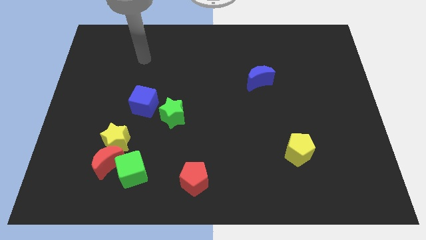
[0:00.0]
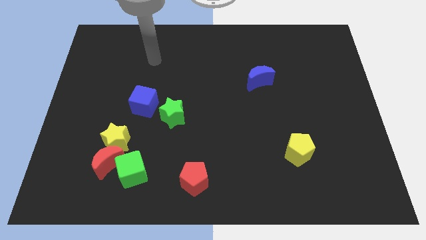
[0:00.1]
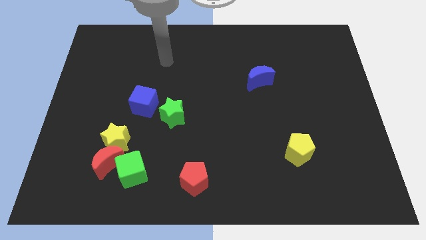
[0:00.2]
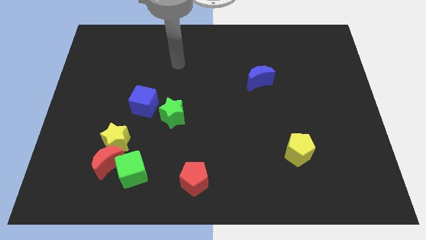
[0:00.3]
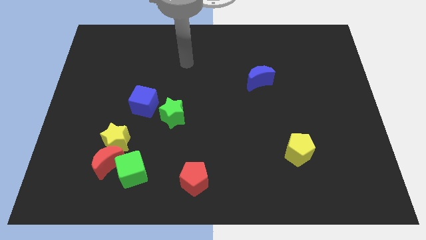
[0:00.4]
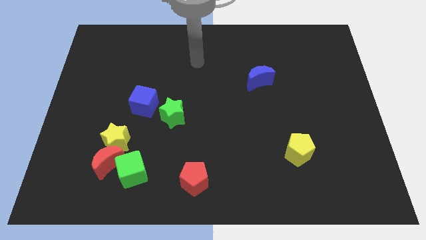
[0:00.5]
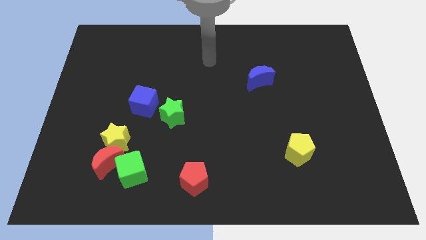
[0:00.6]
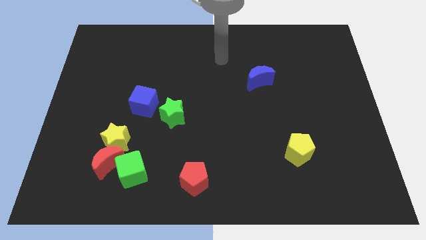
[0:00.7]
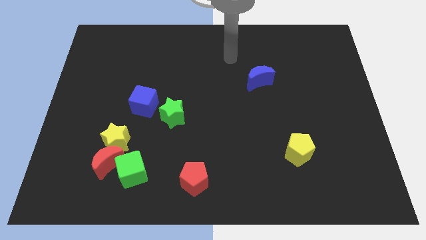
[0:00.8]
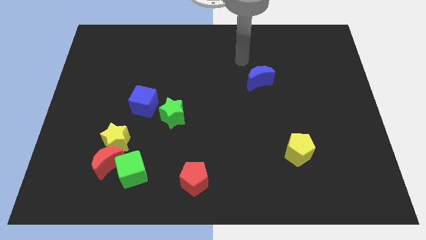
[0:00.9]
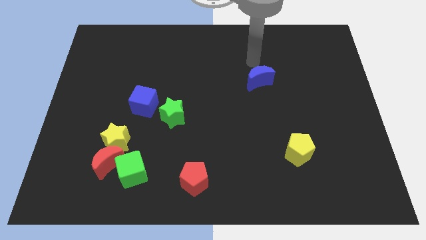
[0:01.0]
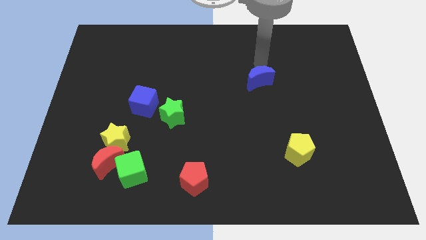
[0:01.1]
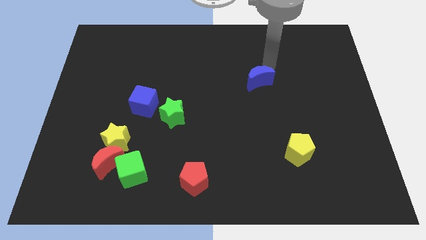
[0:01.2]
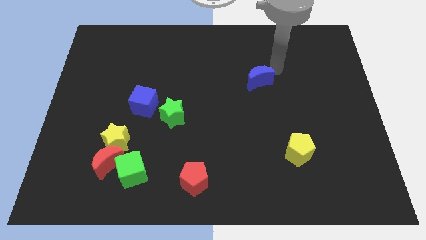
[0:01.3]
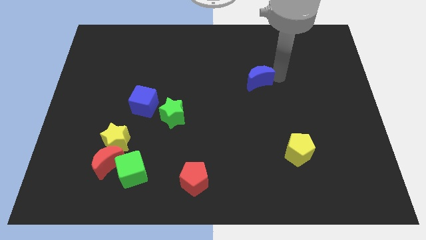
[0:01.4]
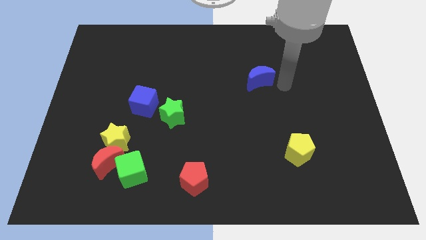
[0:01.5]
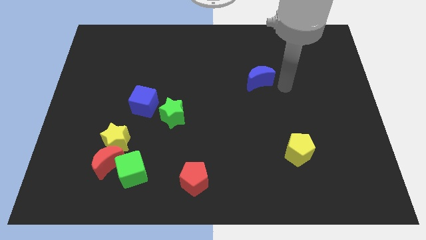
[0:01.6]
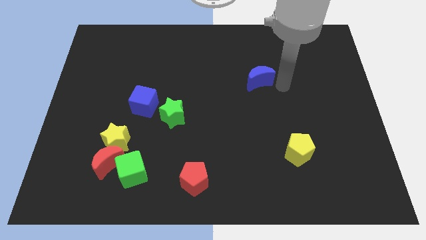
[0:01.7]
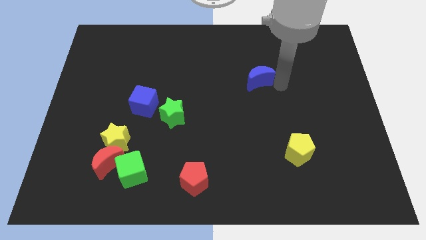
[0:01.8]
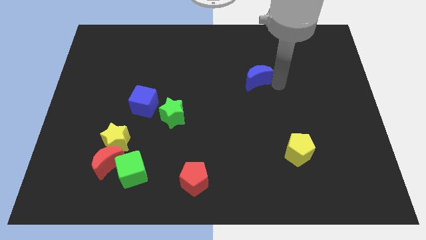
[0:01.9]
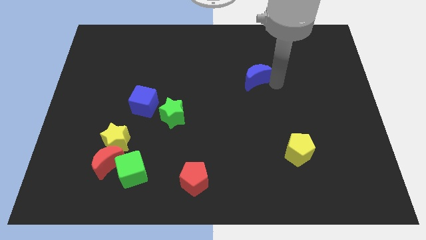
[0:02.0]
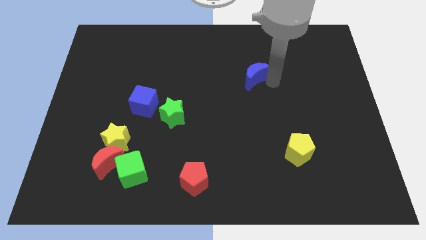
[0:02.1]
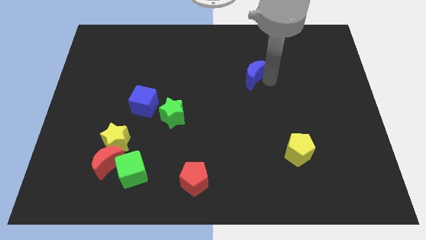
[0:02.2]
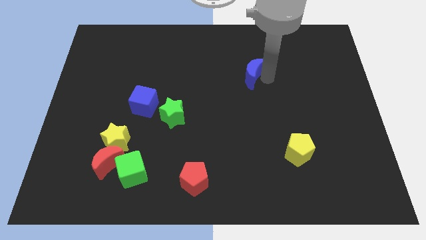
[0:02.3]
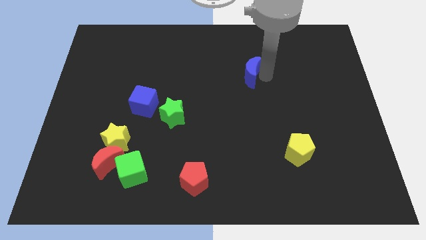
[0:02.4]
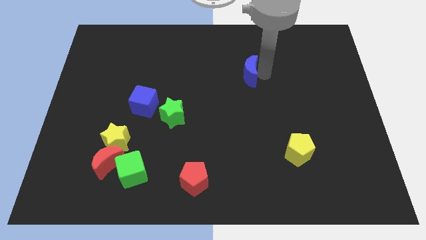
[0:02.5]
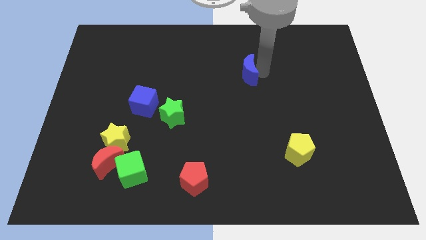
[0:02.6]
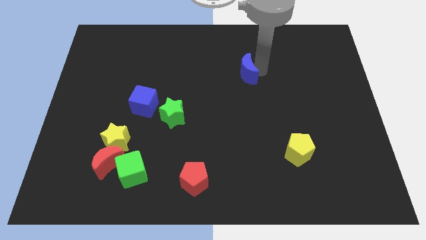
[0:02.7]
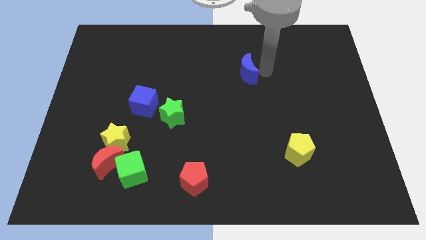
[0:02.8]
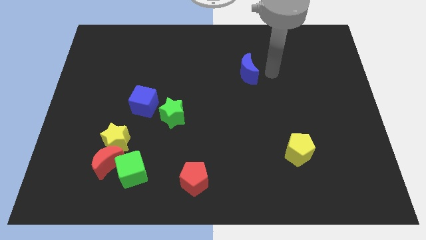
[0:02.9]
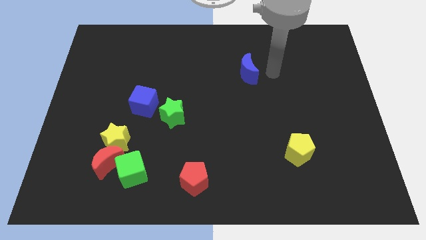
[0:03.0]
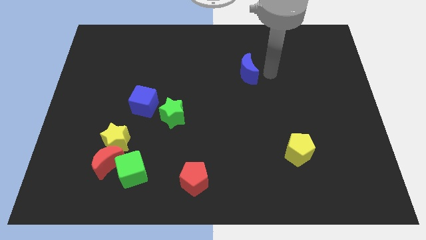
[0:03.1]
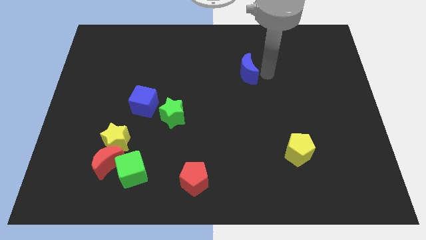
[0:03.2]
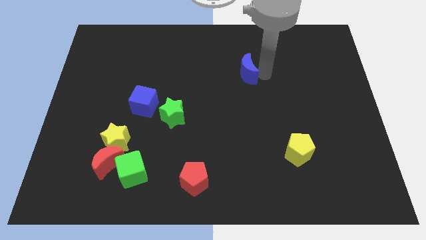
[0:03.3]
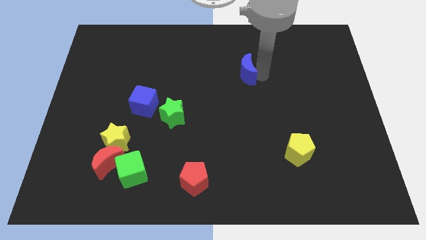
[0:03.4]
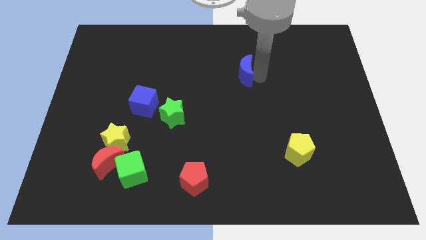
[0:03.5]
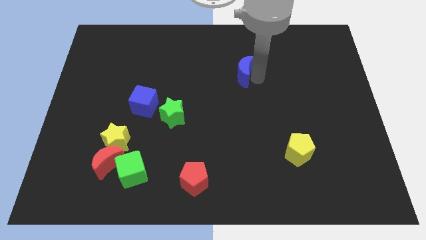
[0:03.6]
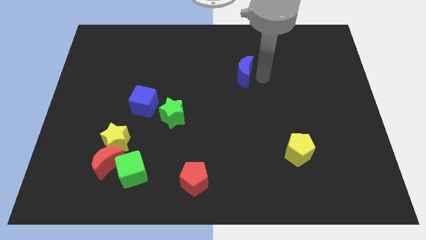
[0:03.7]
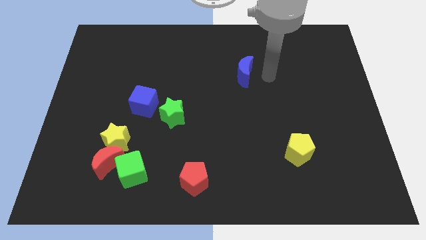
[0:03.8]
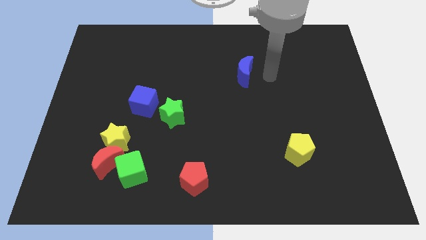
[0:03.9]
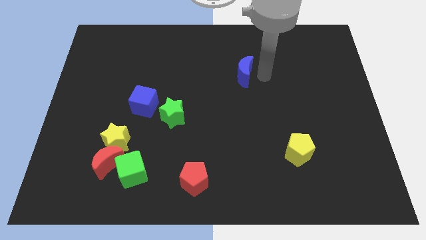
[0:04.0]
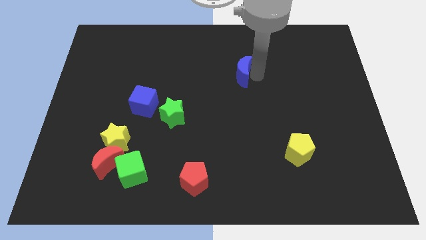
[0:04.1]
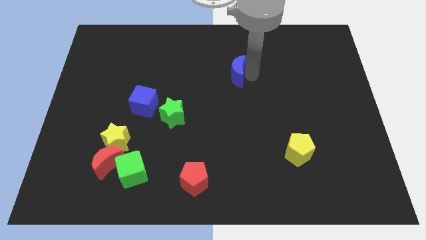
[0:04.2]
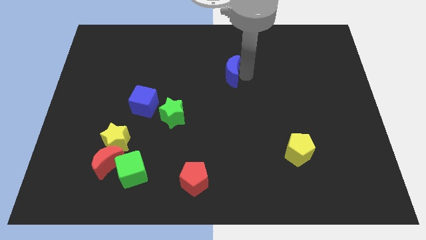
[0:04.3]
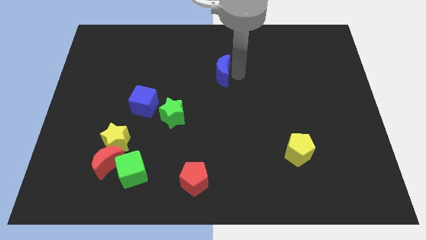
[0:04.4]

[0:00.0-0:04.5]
move the blue moon to the left a little bit

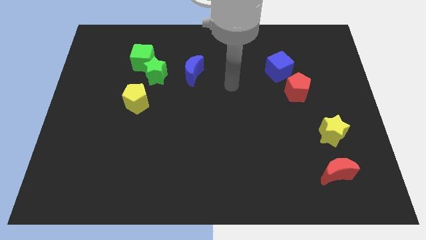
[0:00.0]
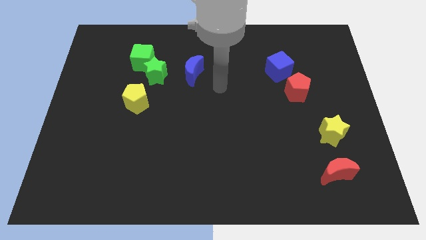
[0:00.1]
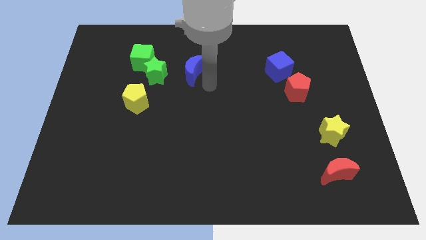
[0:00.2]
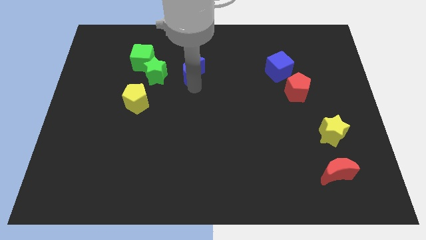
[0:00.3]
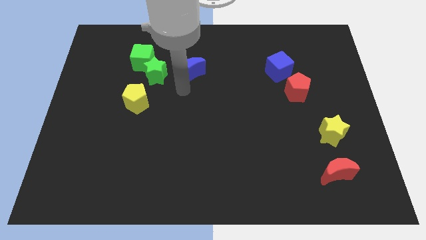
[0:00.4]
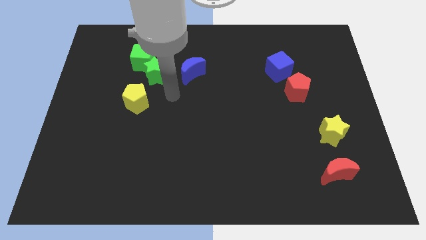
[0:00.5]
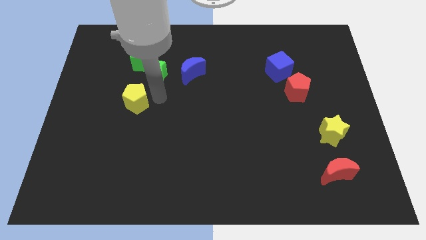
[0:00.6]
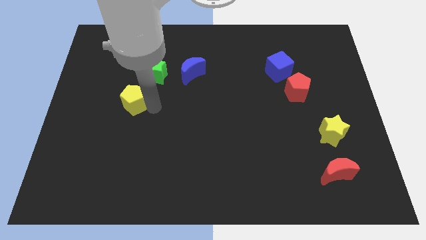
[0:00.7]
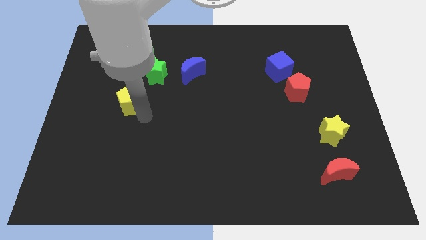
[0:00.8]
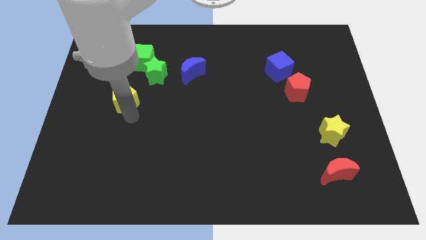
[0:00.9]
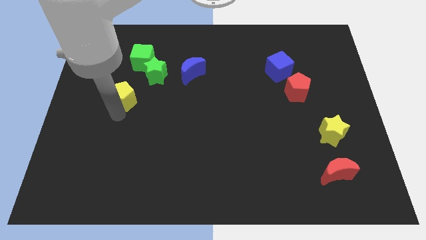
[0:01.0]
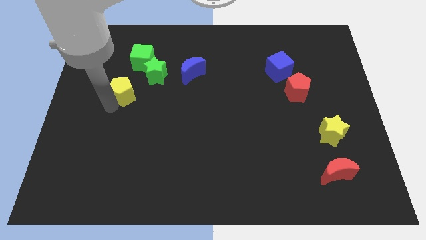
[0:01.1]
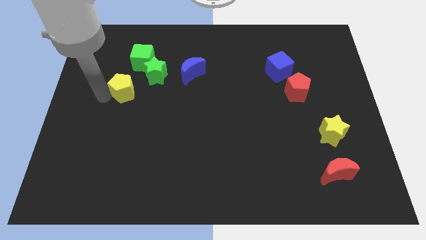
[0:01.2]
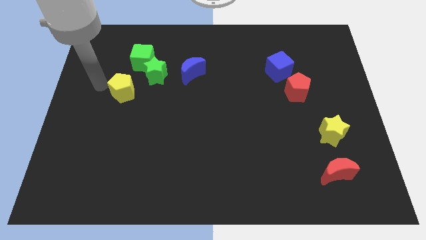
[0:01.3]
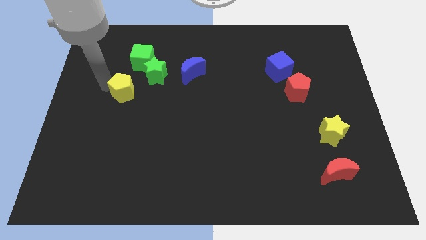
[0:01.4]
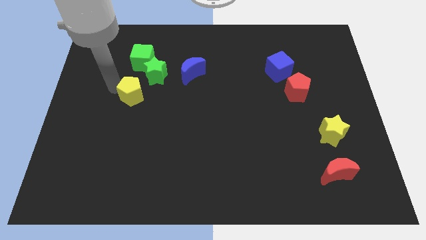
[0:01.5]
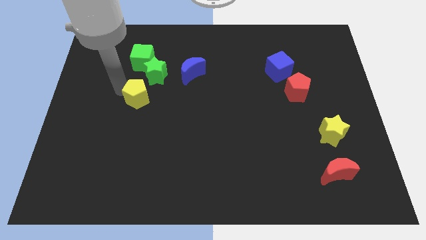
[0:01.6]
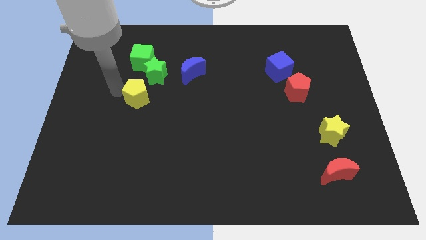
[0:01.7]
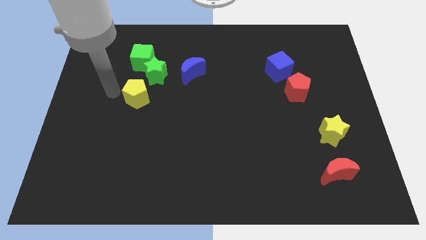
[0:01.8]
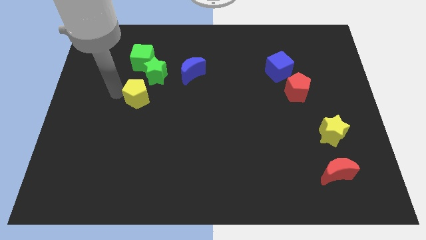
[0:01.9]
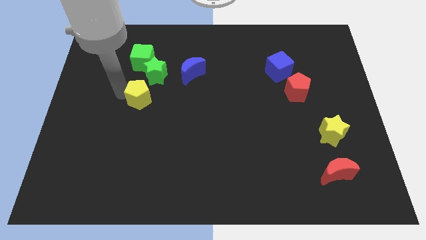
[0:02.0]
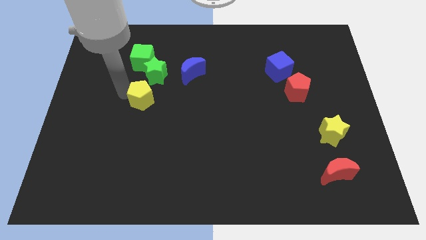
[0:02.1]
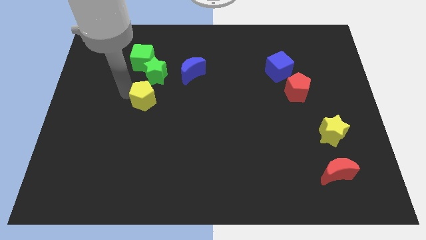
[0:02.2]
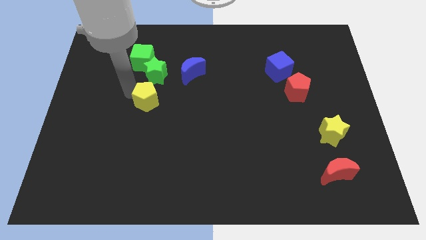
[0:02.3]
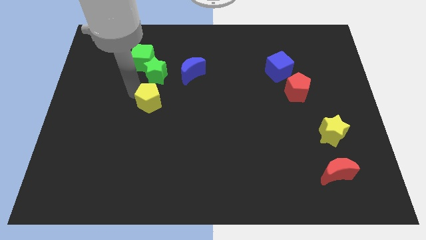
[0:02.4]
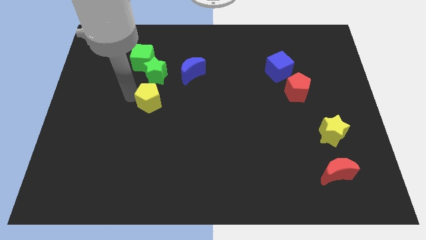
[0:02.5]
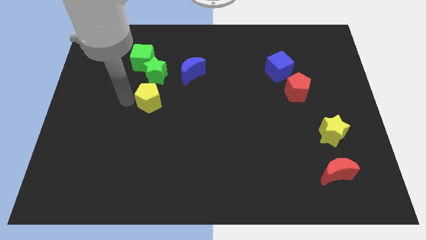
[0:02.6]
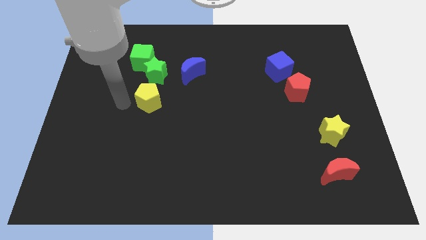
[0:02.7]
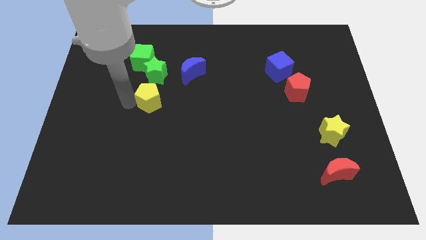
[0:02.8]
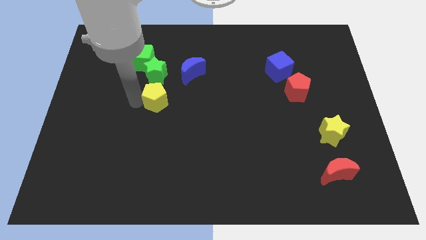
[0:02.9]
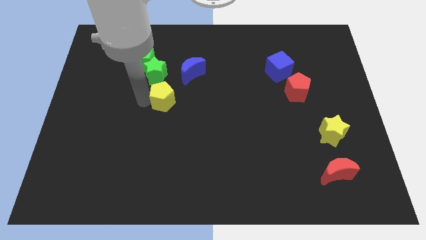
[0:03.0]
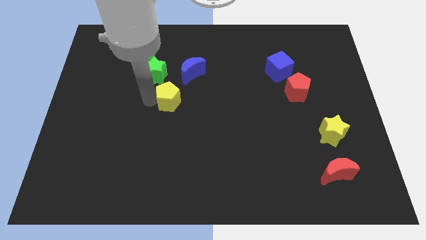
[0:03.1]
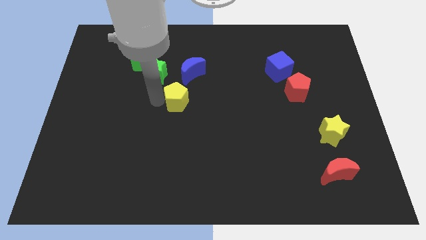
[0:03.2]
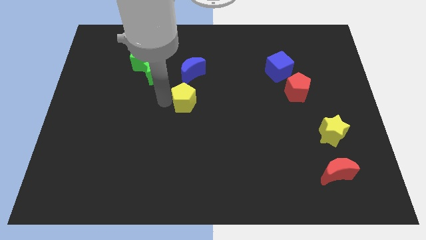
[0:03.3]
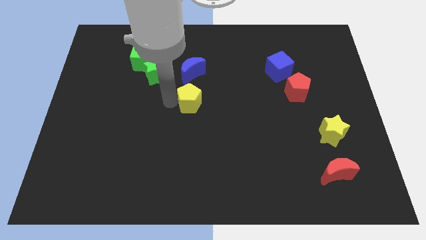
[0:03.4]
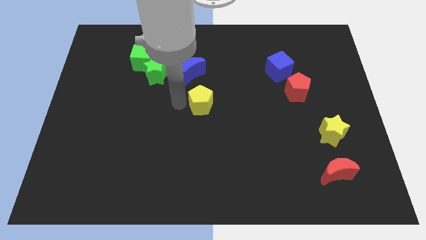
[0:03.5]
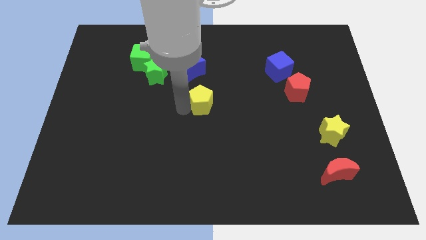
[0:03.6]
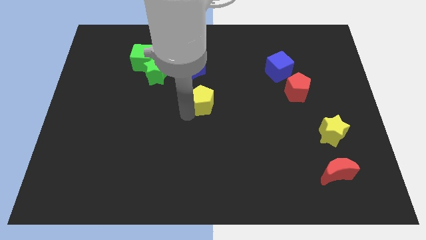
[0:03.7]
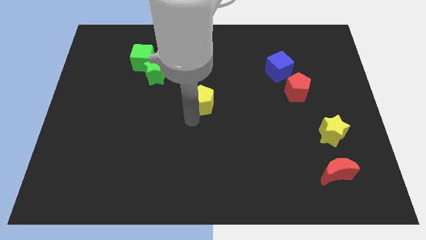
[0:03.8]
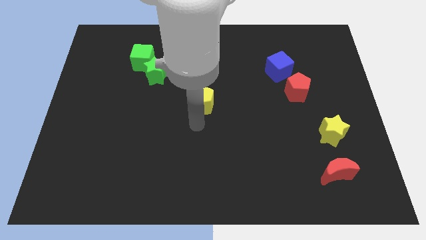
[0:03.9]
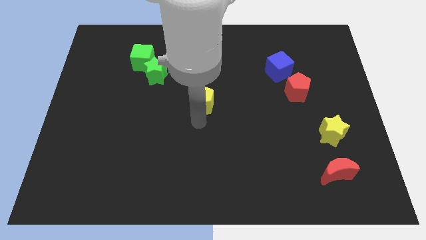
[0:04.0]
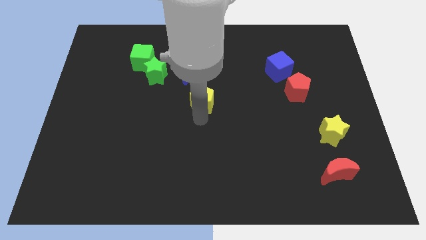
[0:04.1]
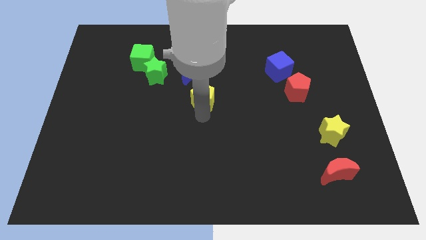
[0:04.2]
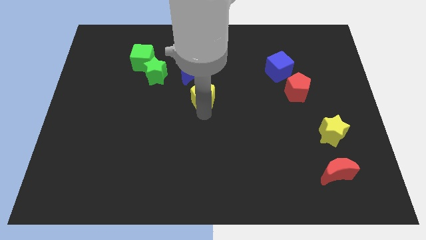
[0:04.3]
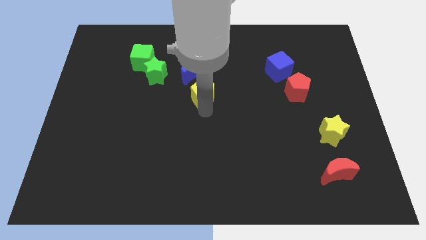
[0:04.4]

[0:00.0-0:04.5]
slide the yellow pentagon somewhat diagonally upwards and to the right
